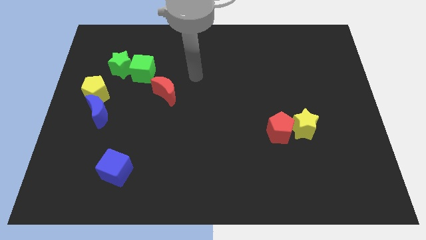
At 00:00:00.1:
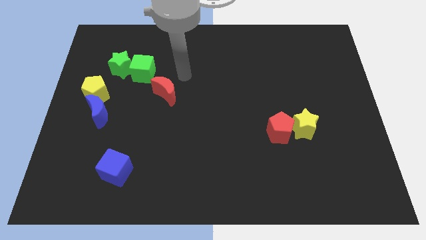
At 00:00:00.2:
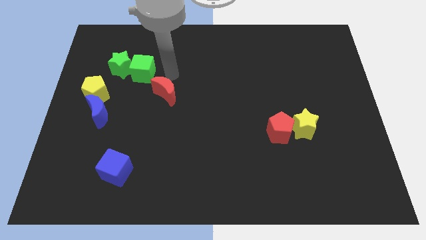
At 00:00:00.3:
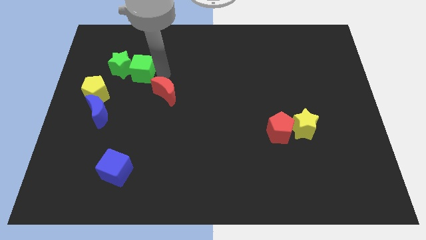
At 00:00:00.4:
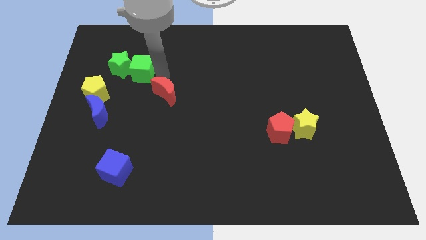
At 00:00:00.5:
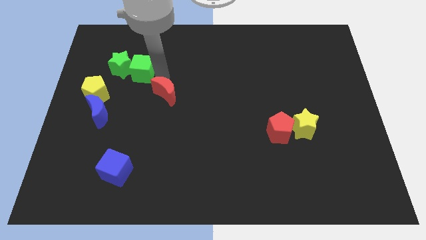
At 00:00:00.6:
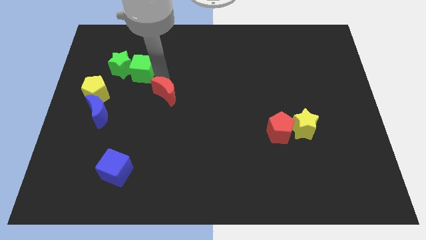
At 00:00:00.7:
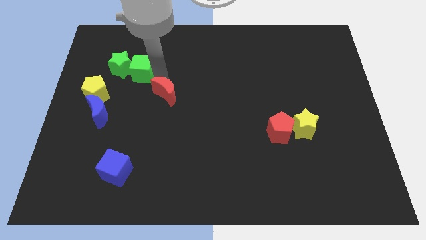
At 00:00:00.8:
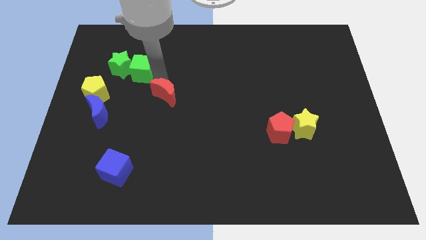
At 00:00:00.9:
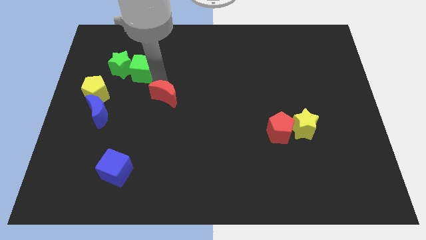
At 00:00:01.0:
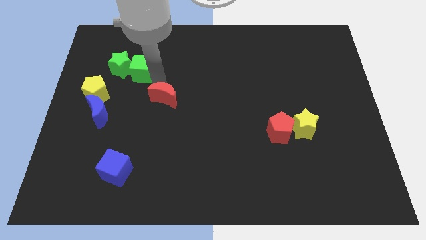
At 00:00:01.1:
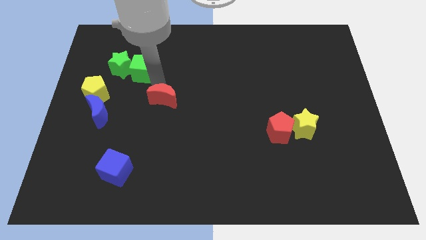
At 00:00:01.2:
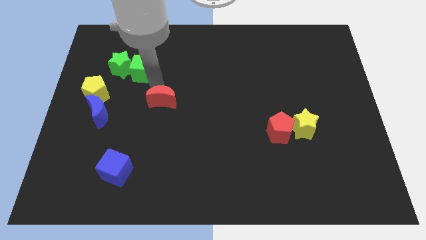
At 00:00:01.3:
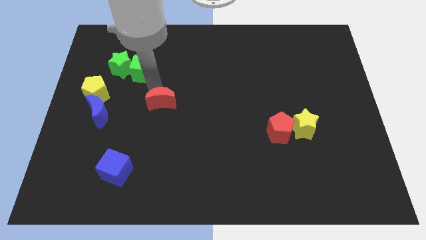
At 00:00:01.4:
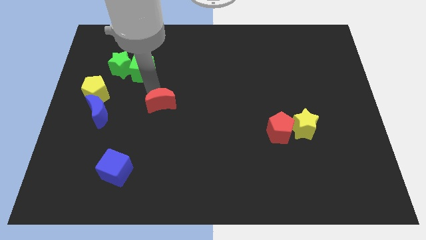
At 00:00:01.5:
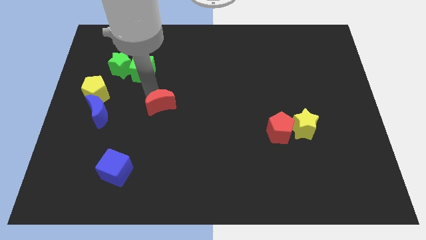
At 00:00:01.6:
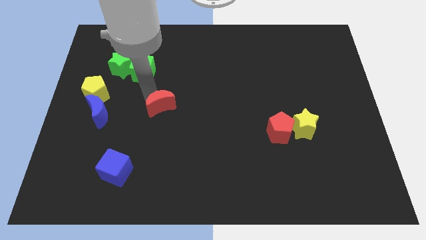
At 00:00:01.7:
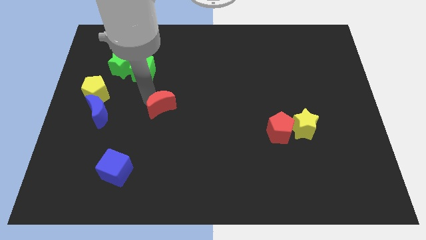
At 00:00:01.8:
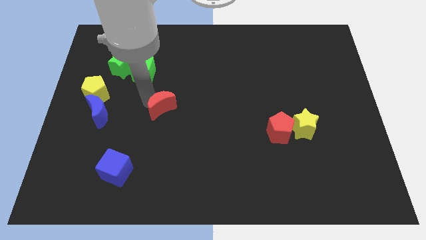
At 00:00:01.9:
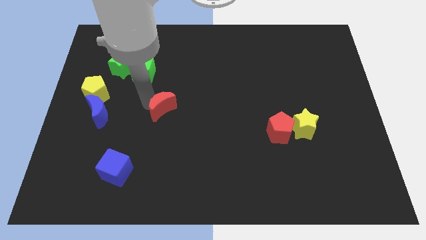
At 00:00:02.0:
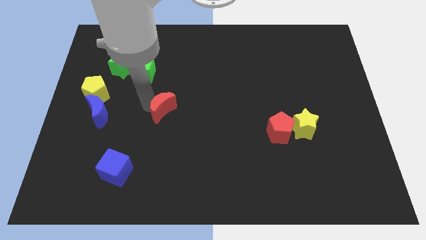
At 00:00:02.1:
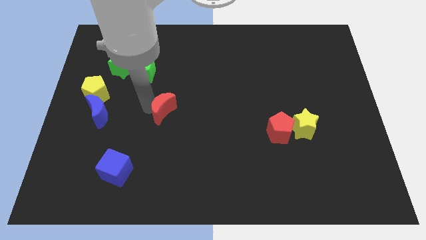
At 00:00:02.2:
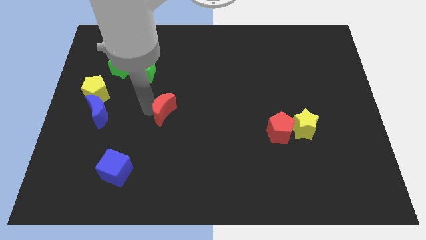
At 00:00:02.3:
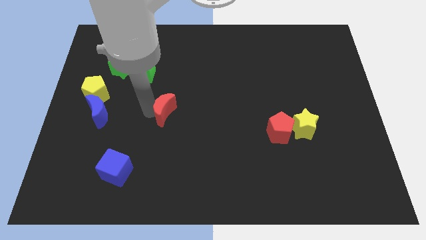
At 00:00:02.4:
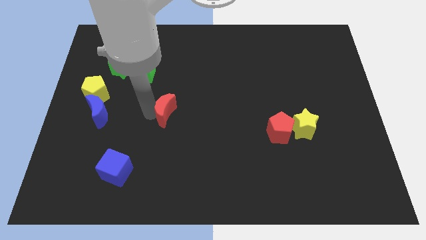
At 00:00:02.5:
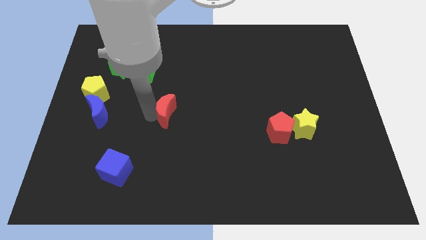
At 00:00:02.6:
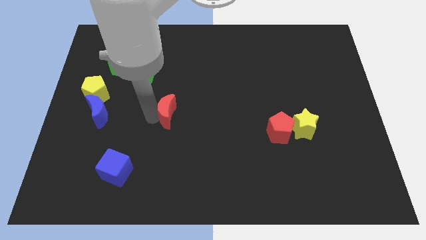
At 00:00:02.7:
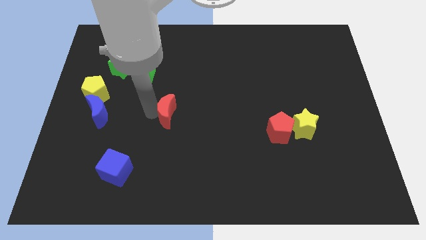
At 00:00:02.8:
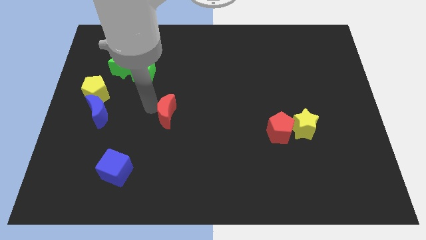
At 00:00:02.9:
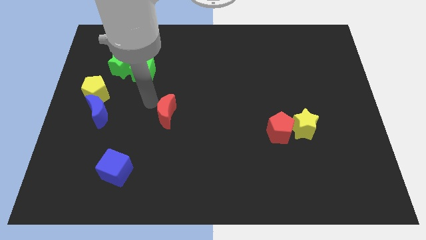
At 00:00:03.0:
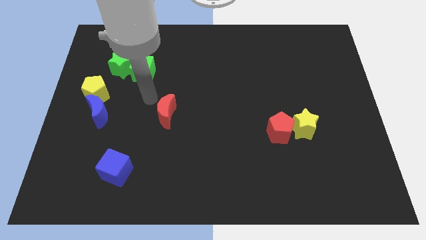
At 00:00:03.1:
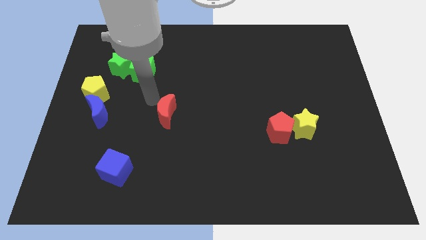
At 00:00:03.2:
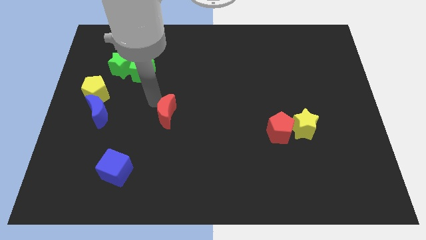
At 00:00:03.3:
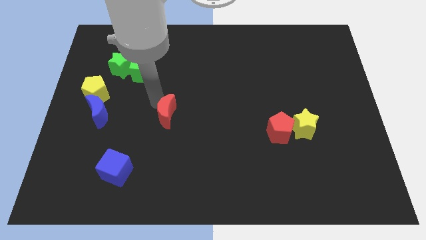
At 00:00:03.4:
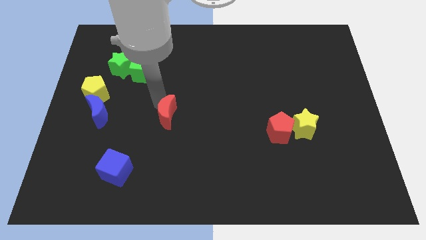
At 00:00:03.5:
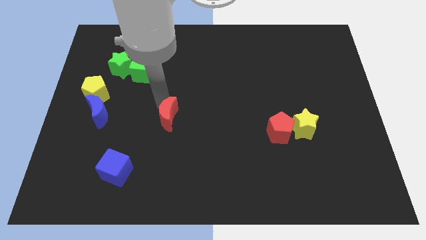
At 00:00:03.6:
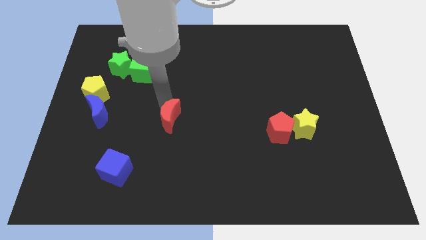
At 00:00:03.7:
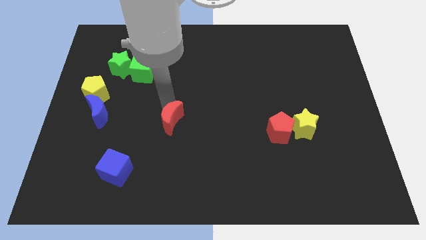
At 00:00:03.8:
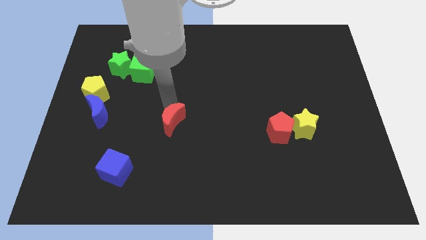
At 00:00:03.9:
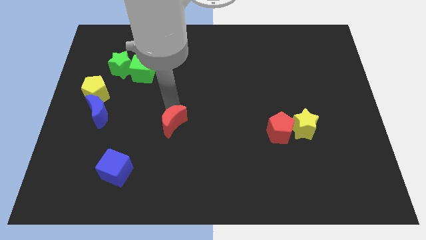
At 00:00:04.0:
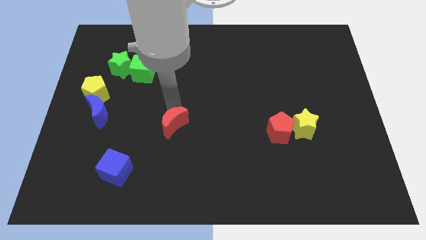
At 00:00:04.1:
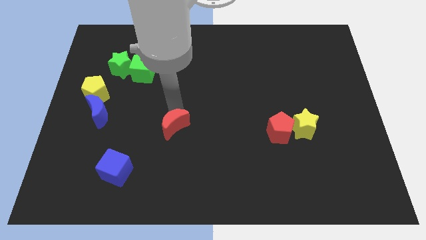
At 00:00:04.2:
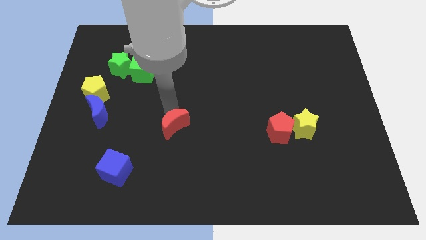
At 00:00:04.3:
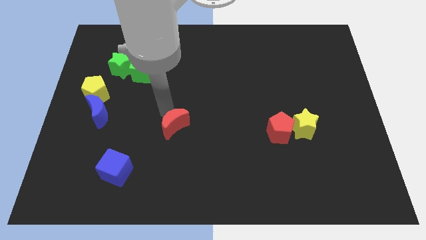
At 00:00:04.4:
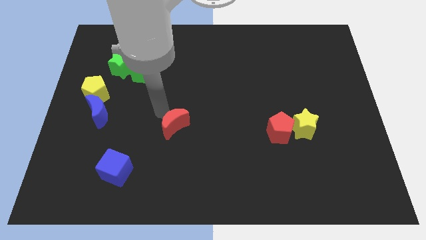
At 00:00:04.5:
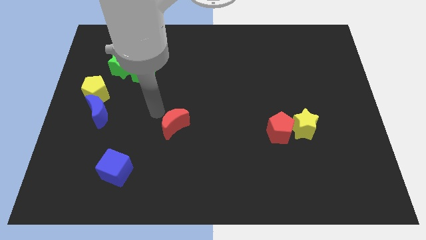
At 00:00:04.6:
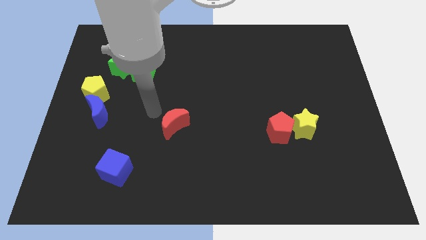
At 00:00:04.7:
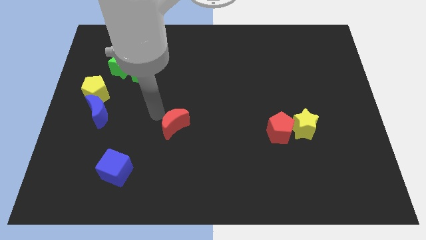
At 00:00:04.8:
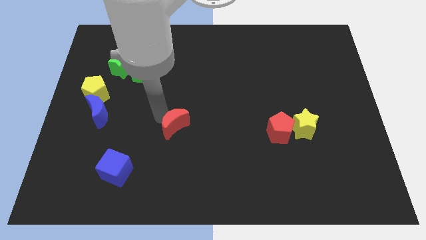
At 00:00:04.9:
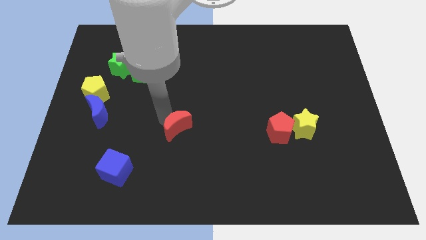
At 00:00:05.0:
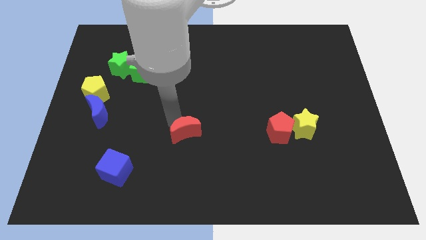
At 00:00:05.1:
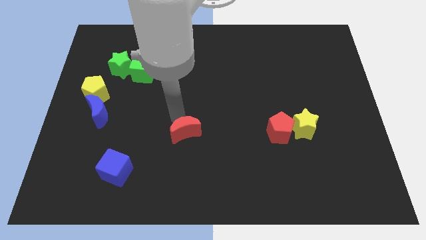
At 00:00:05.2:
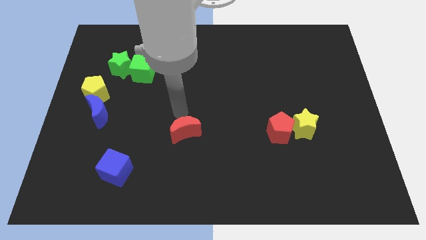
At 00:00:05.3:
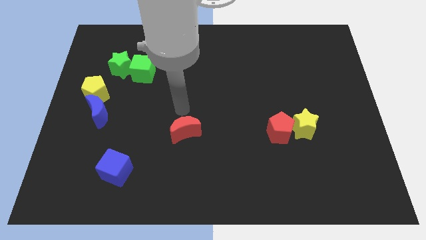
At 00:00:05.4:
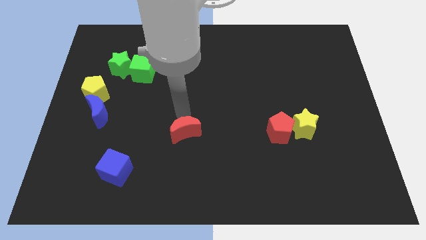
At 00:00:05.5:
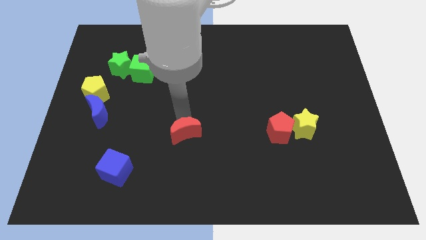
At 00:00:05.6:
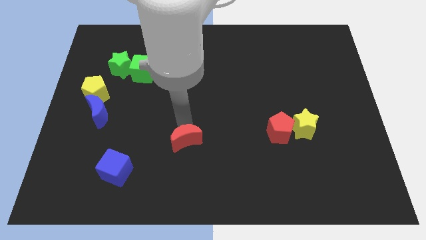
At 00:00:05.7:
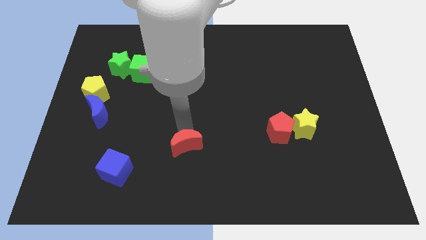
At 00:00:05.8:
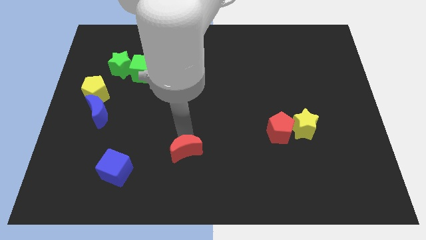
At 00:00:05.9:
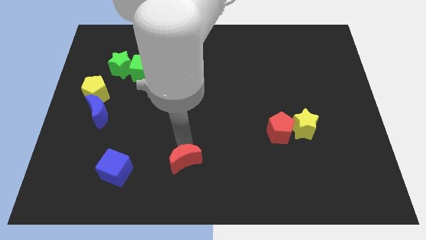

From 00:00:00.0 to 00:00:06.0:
push the red moon to the bottom
